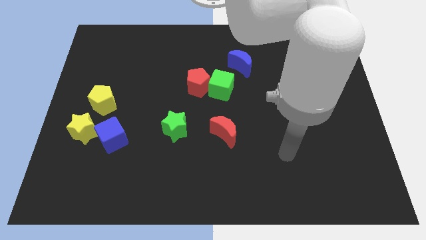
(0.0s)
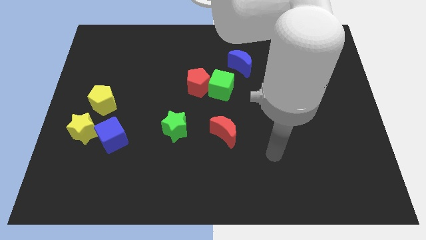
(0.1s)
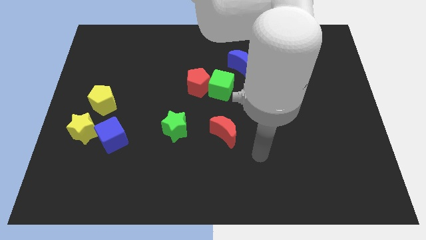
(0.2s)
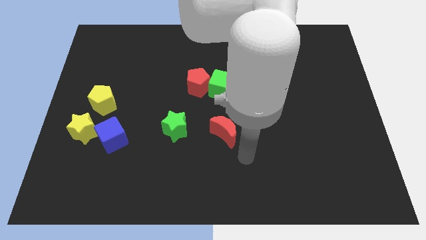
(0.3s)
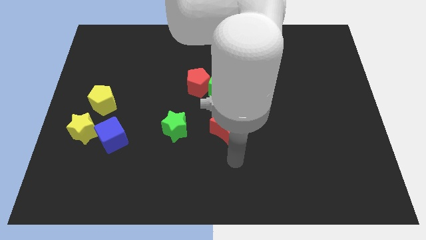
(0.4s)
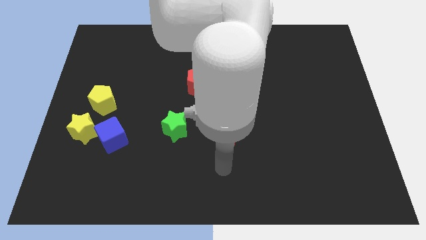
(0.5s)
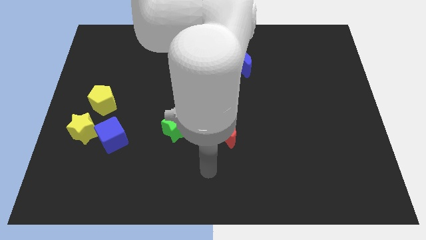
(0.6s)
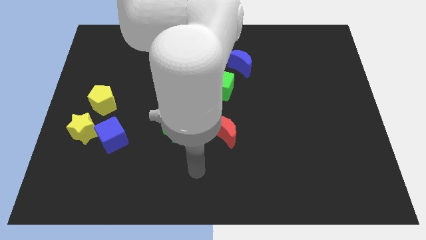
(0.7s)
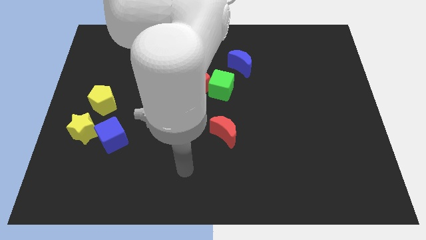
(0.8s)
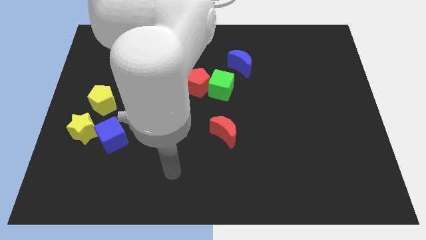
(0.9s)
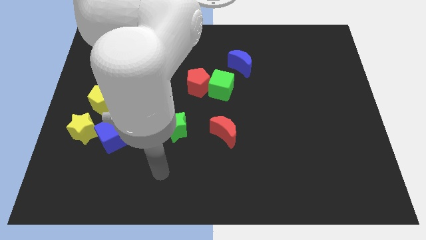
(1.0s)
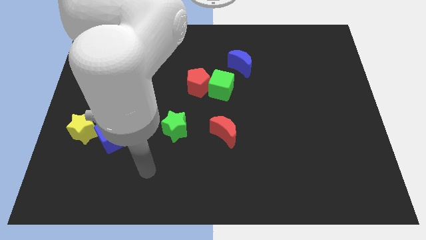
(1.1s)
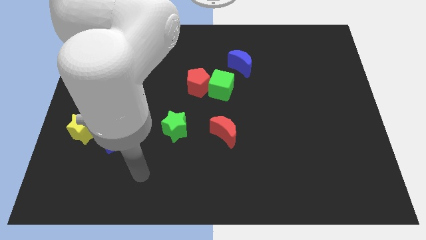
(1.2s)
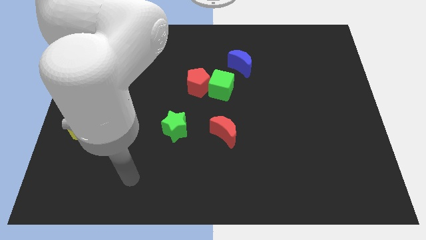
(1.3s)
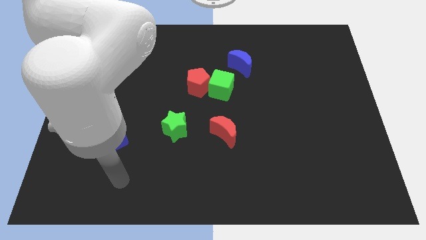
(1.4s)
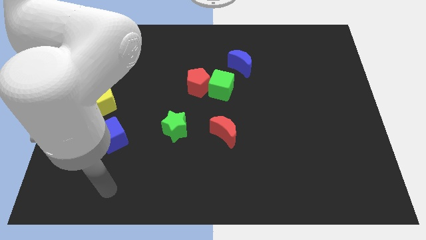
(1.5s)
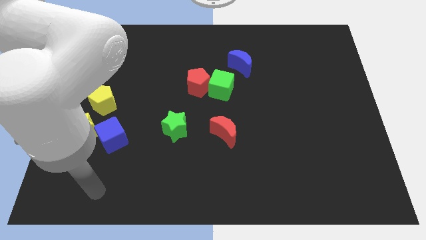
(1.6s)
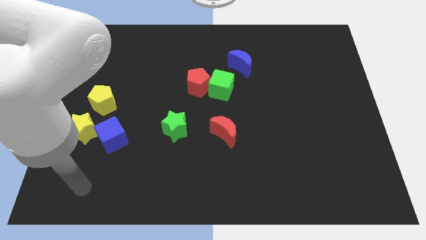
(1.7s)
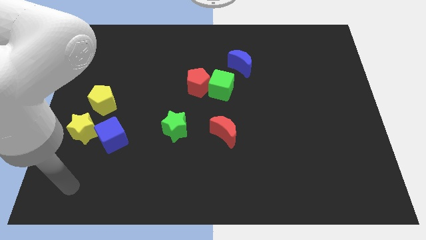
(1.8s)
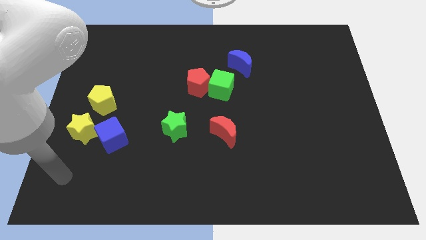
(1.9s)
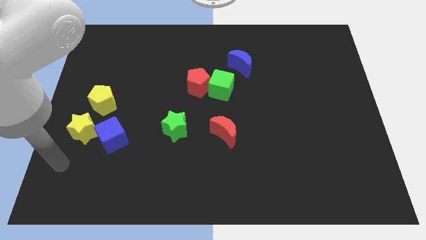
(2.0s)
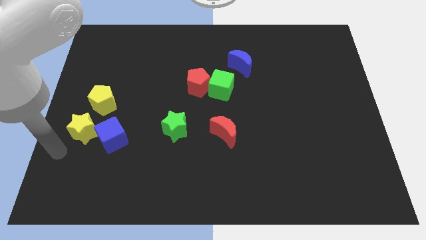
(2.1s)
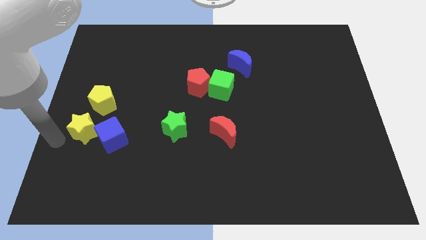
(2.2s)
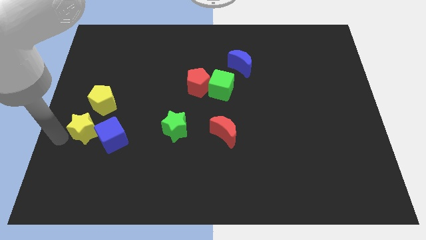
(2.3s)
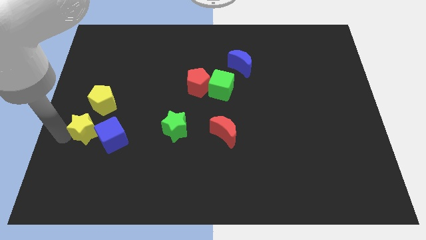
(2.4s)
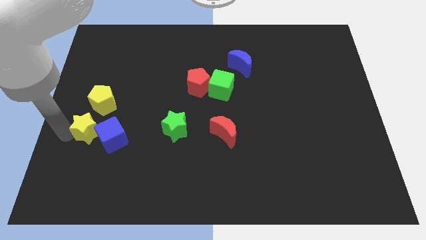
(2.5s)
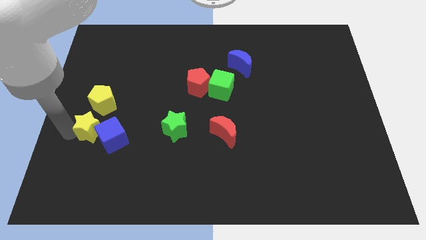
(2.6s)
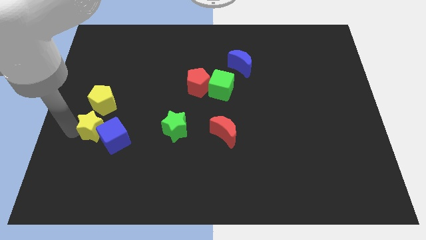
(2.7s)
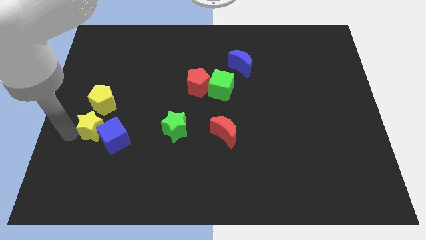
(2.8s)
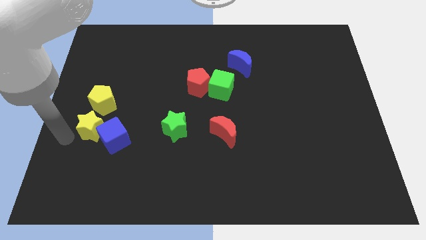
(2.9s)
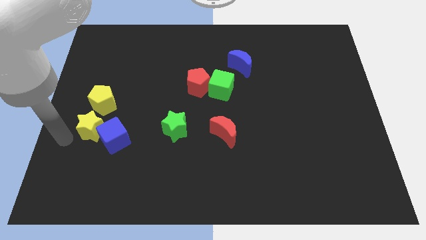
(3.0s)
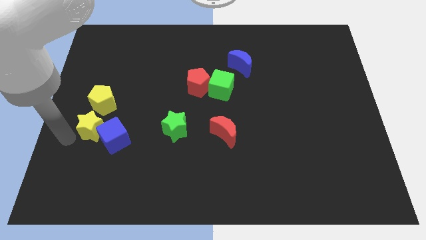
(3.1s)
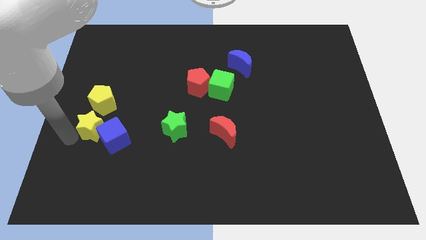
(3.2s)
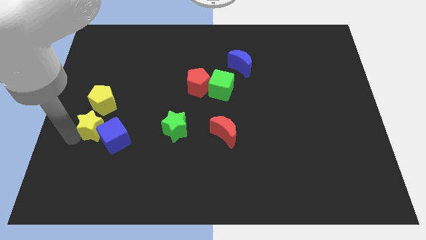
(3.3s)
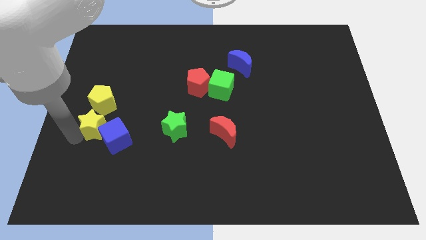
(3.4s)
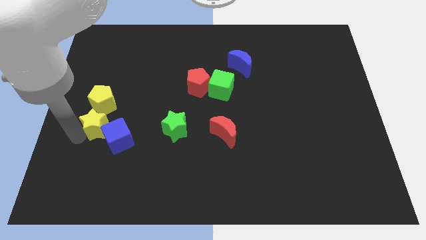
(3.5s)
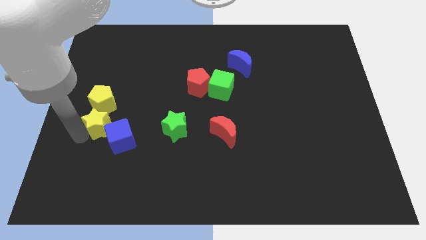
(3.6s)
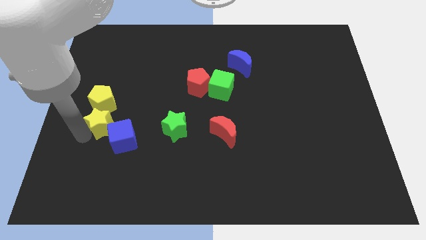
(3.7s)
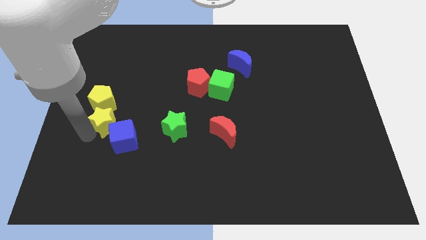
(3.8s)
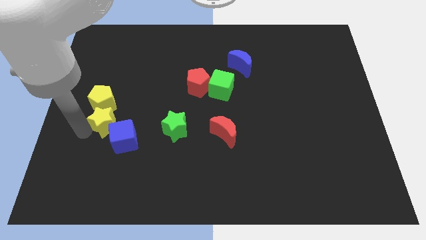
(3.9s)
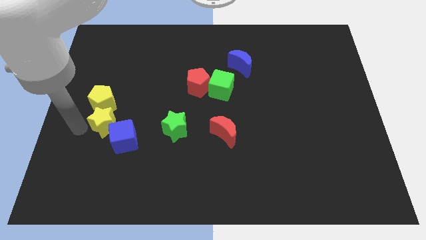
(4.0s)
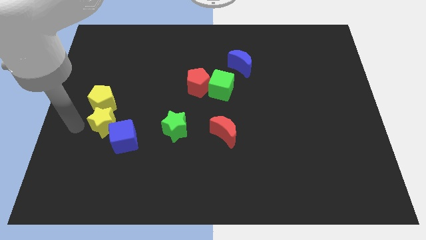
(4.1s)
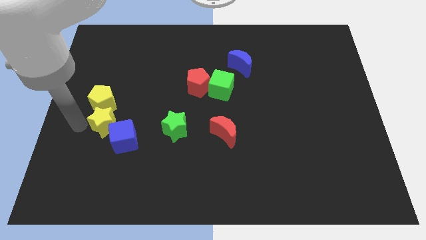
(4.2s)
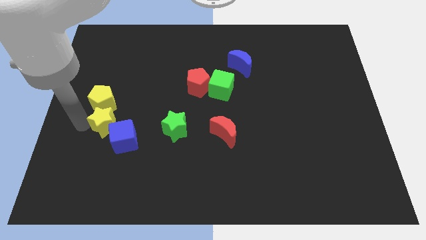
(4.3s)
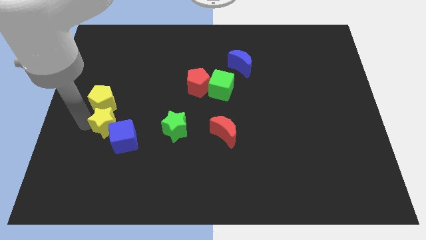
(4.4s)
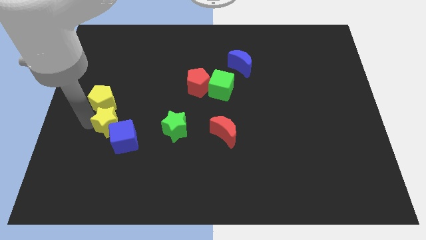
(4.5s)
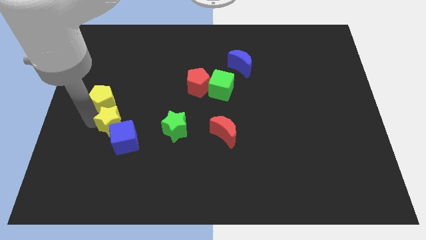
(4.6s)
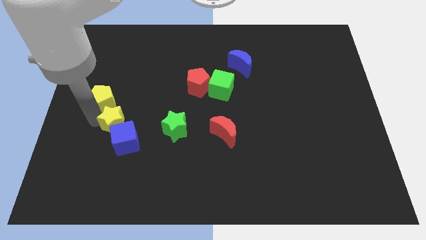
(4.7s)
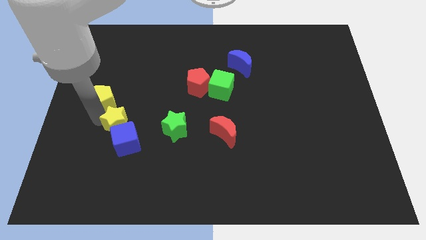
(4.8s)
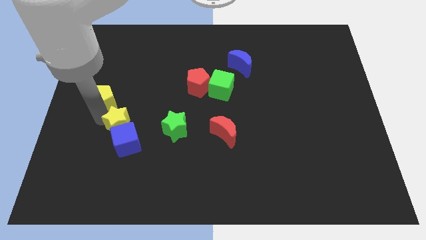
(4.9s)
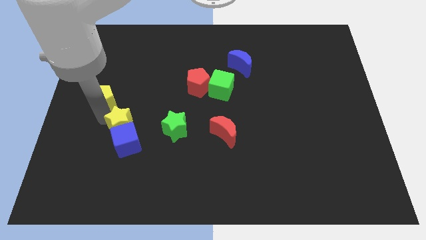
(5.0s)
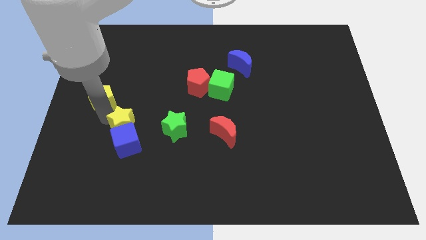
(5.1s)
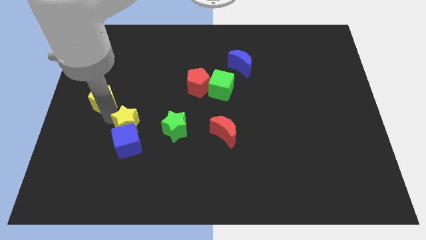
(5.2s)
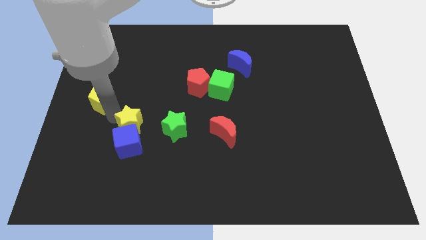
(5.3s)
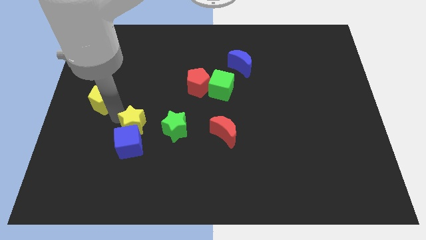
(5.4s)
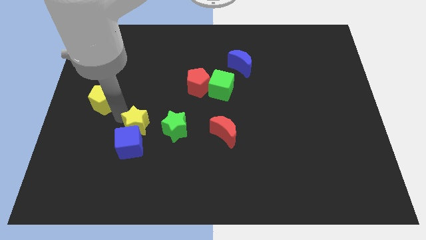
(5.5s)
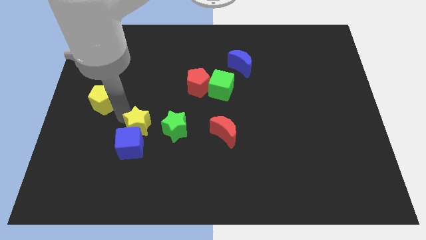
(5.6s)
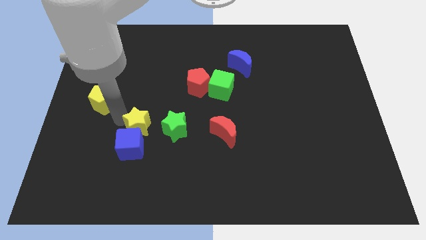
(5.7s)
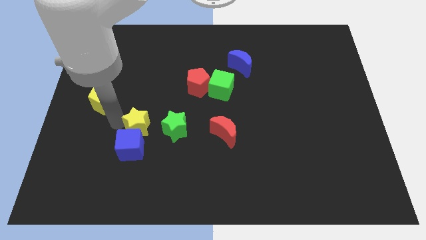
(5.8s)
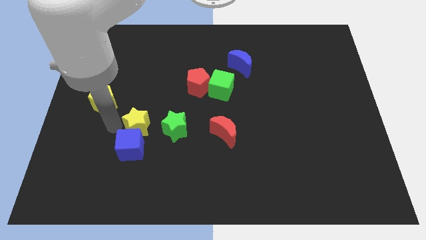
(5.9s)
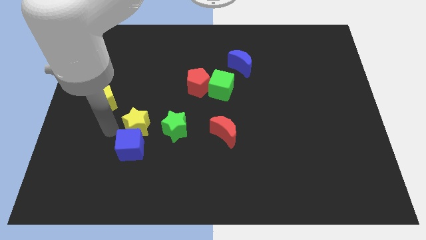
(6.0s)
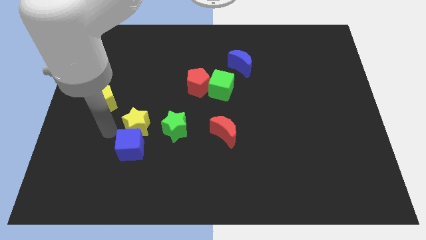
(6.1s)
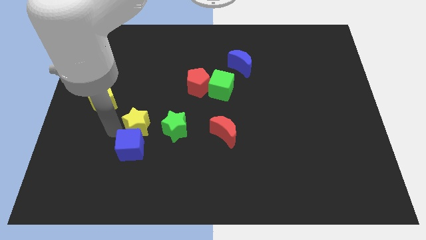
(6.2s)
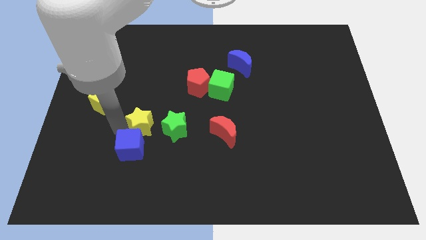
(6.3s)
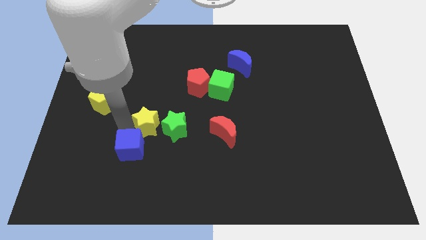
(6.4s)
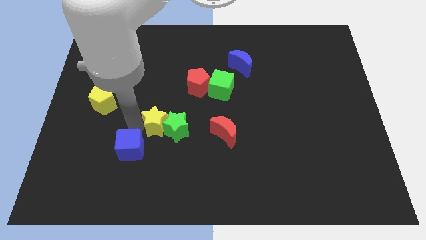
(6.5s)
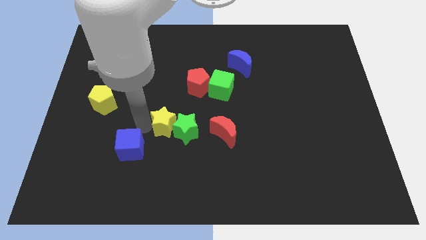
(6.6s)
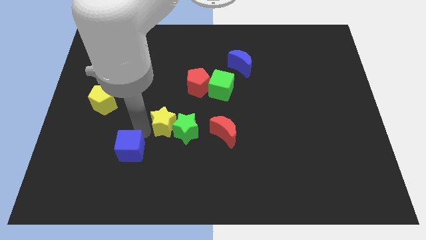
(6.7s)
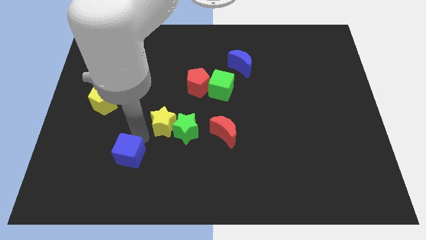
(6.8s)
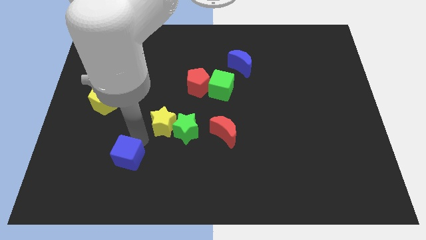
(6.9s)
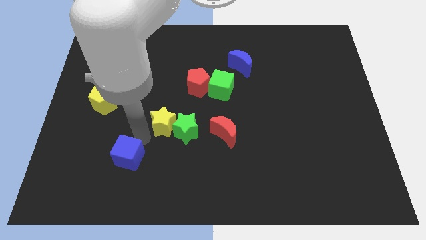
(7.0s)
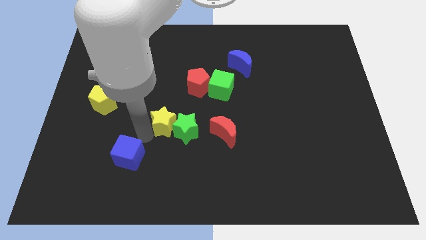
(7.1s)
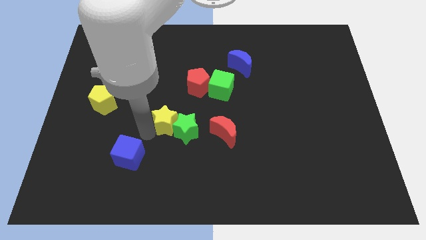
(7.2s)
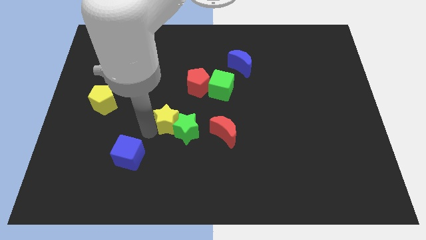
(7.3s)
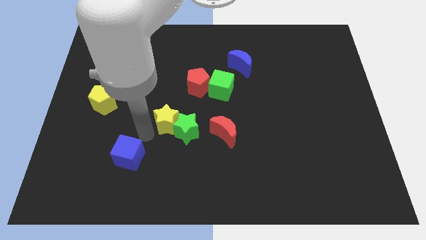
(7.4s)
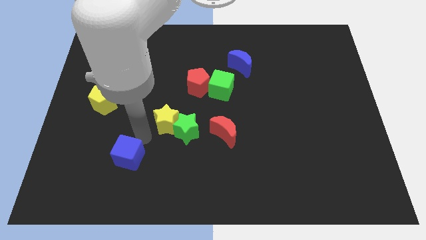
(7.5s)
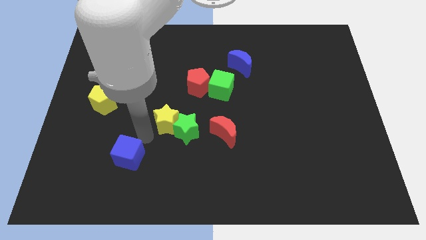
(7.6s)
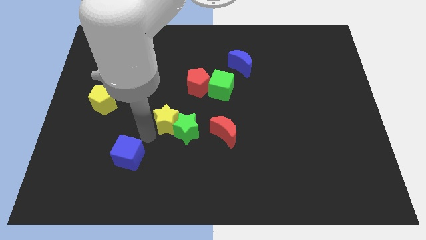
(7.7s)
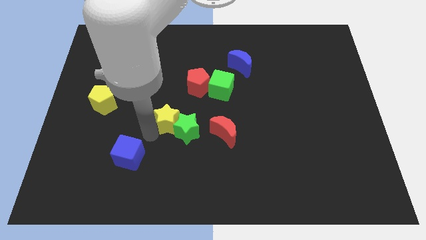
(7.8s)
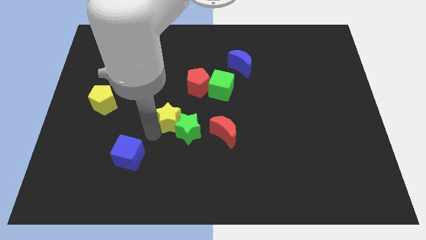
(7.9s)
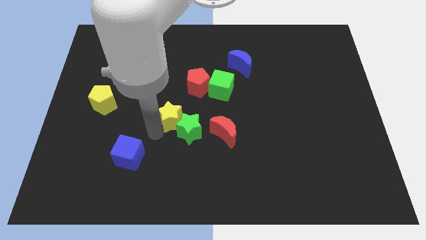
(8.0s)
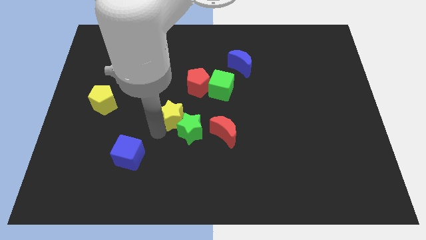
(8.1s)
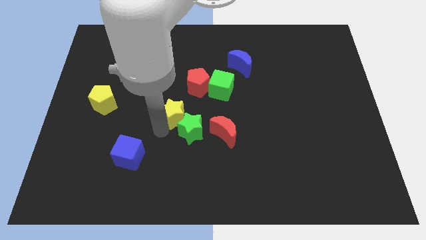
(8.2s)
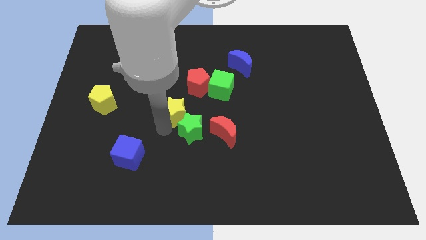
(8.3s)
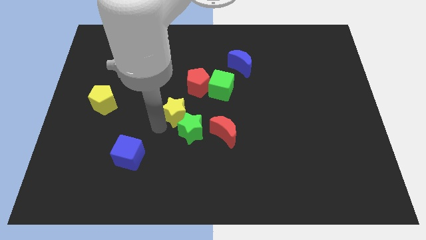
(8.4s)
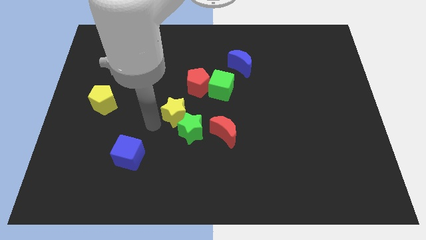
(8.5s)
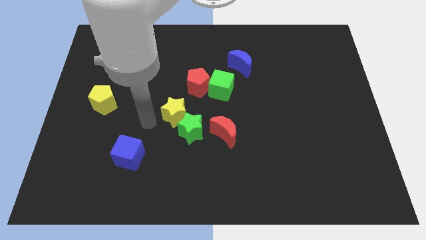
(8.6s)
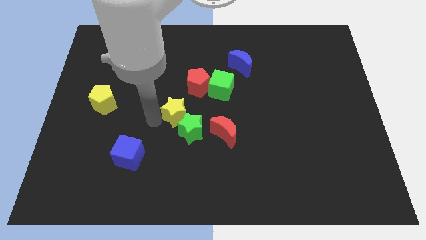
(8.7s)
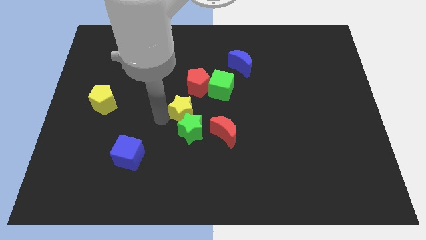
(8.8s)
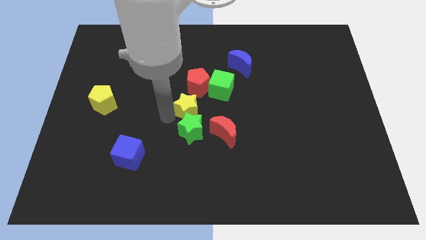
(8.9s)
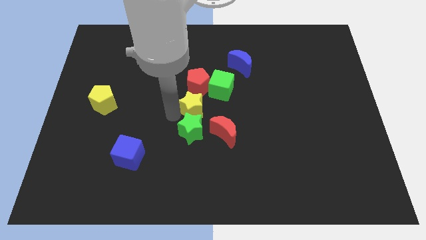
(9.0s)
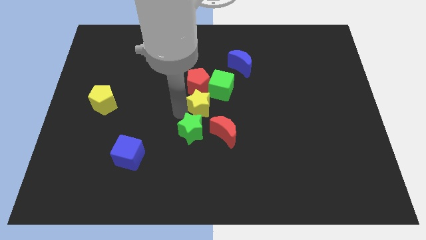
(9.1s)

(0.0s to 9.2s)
move the yellow star diagonally down and to the right of the red pentagon
